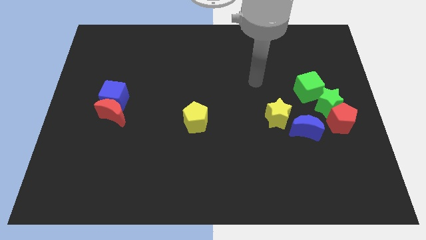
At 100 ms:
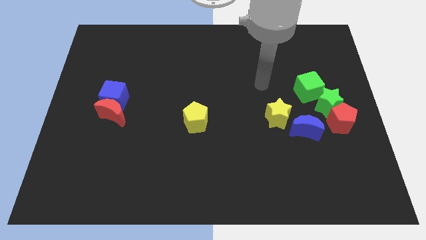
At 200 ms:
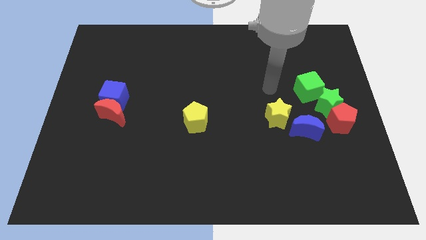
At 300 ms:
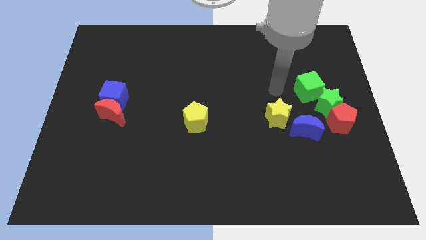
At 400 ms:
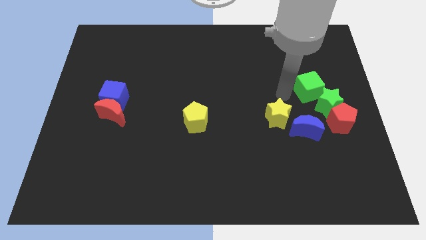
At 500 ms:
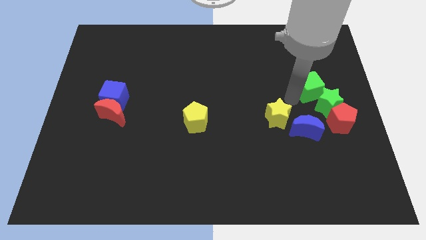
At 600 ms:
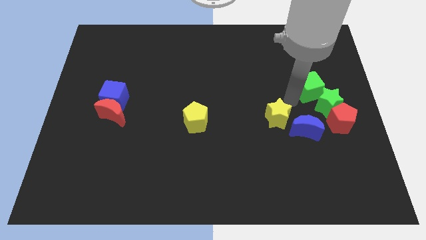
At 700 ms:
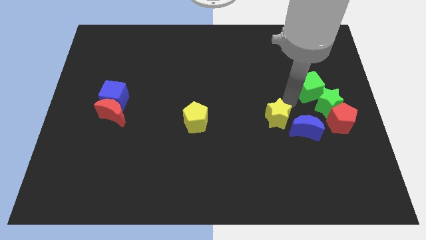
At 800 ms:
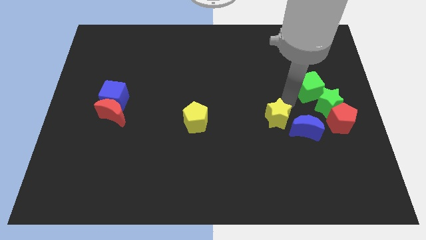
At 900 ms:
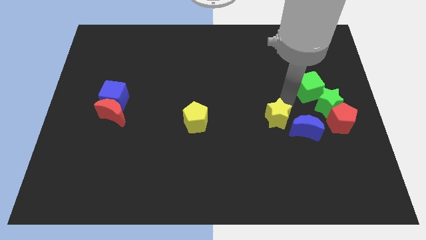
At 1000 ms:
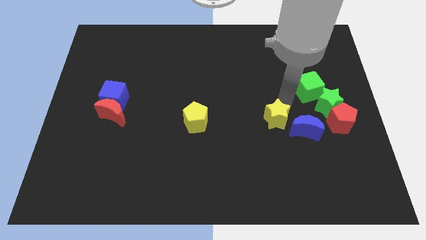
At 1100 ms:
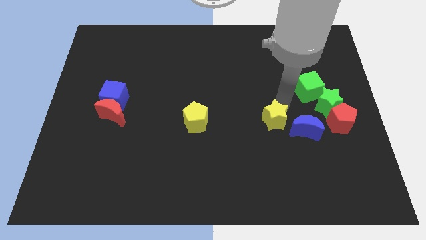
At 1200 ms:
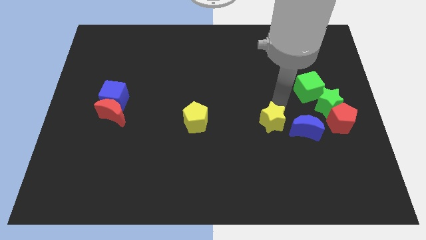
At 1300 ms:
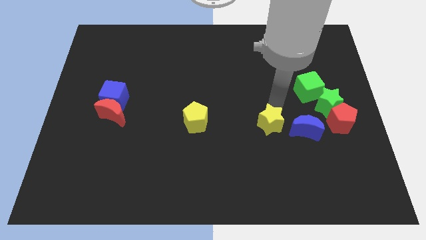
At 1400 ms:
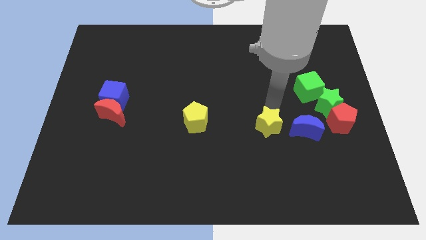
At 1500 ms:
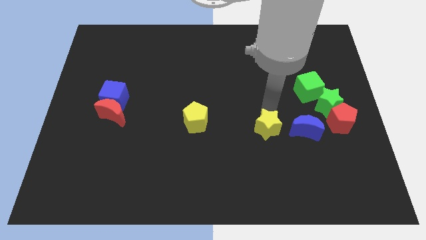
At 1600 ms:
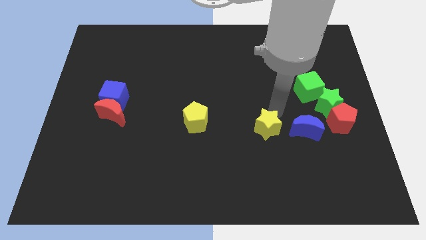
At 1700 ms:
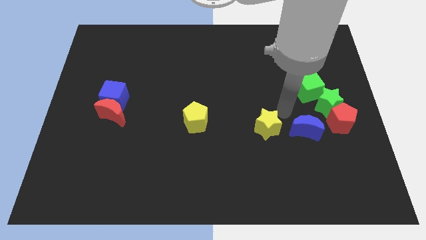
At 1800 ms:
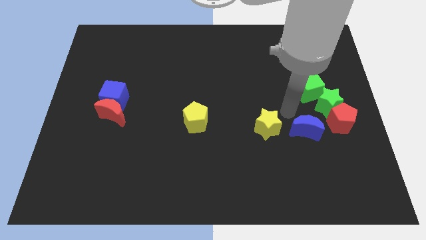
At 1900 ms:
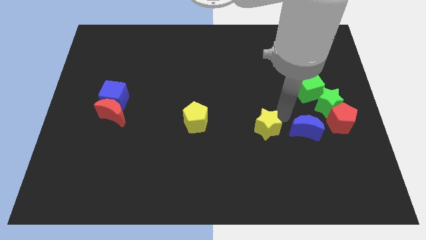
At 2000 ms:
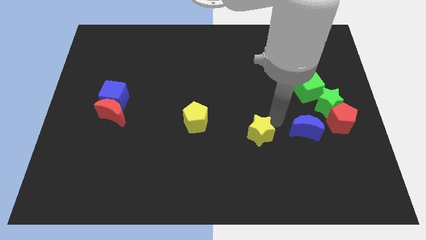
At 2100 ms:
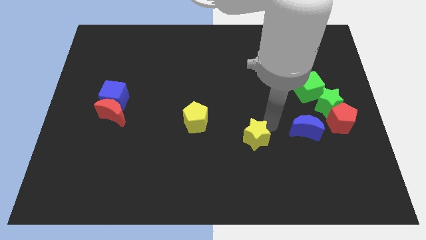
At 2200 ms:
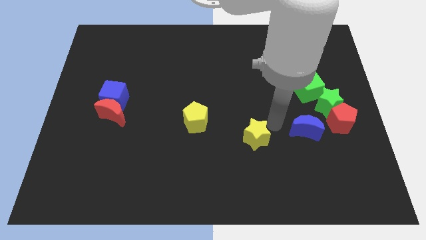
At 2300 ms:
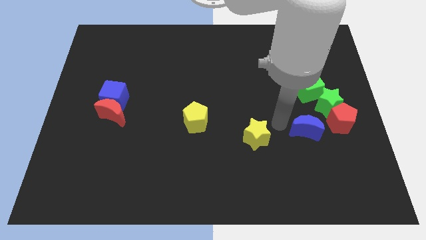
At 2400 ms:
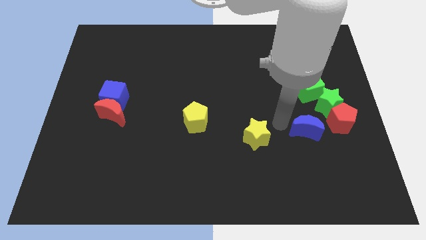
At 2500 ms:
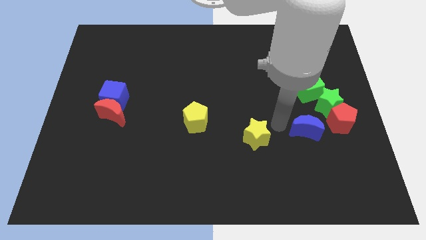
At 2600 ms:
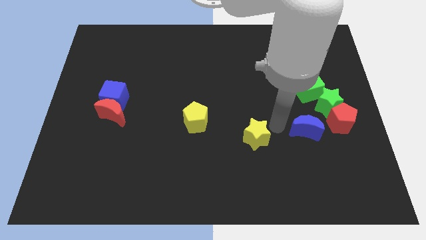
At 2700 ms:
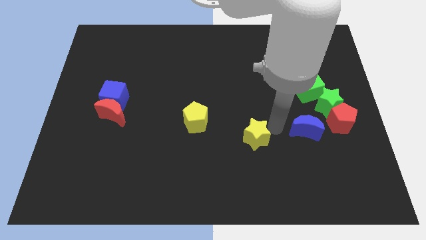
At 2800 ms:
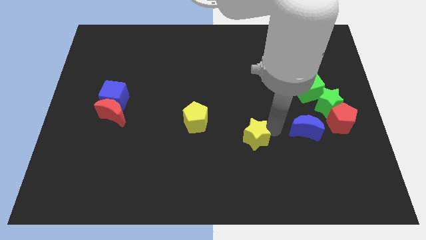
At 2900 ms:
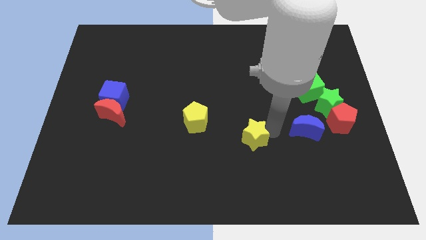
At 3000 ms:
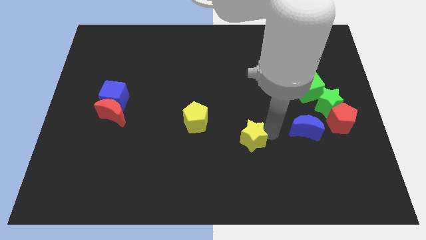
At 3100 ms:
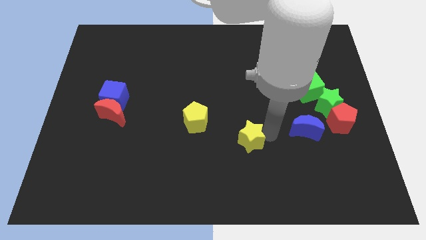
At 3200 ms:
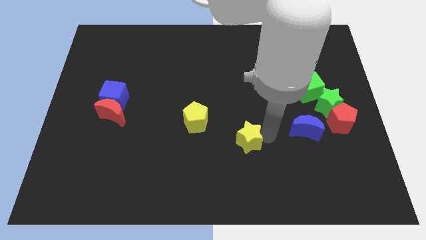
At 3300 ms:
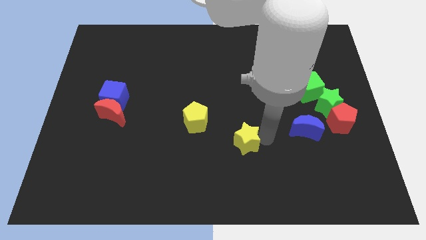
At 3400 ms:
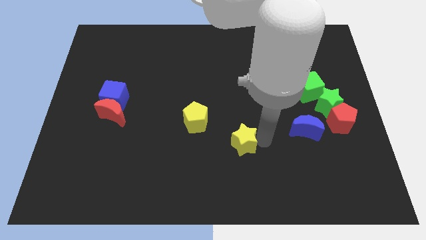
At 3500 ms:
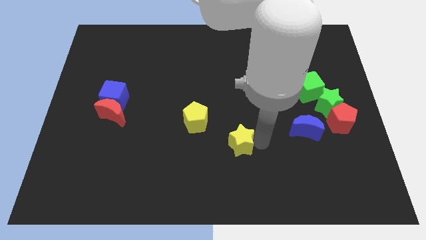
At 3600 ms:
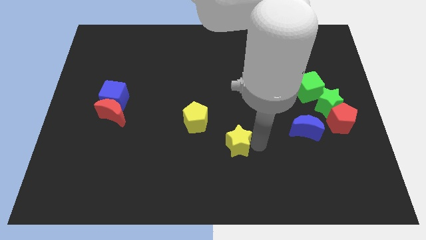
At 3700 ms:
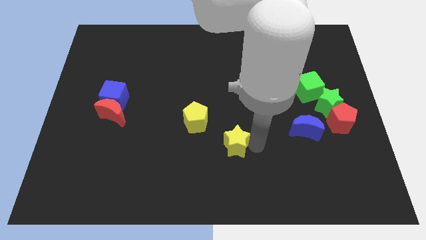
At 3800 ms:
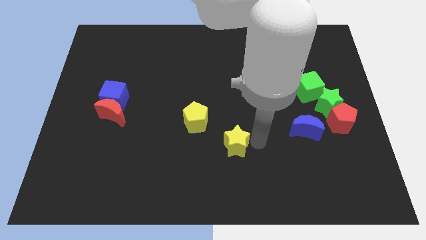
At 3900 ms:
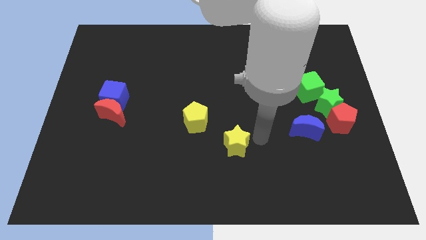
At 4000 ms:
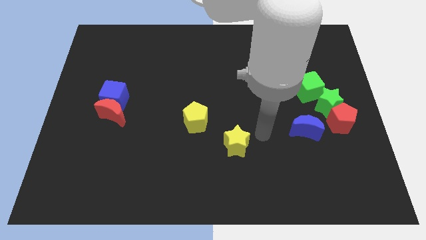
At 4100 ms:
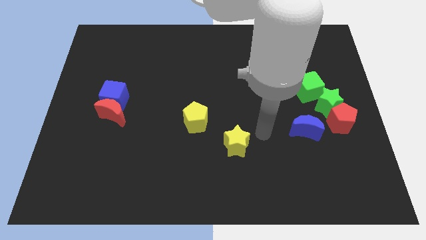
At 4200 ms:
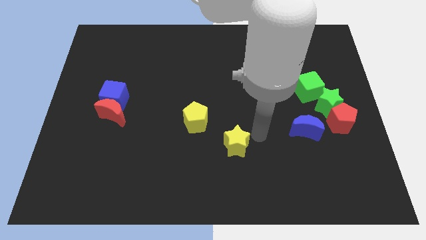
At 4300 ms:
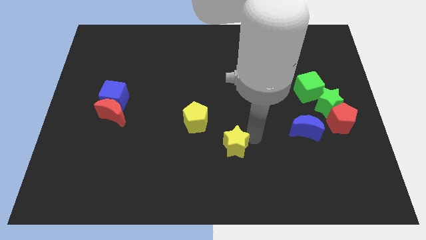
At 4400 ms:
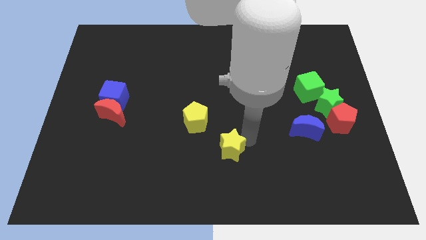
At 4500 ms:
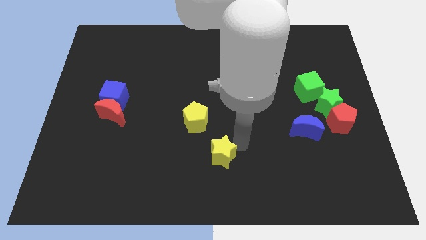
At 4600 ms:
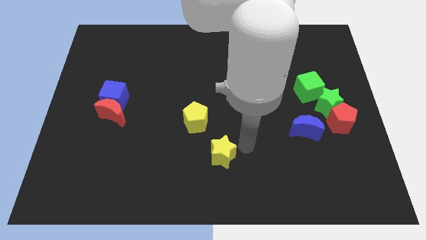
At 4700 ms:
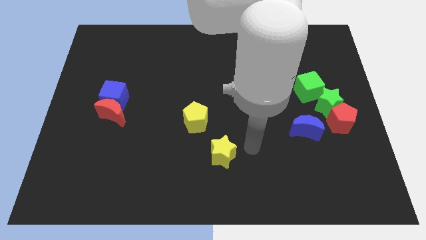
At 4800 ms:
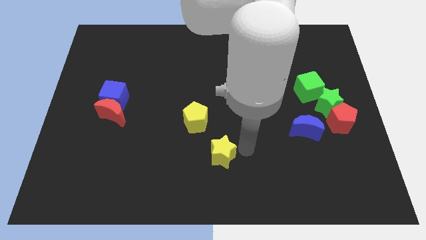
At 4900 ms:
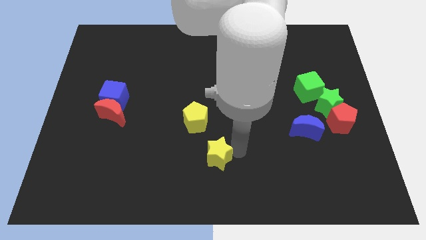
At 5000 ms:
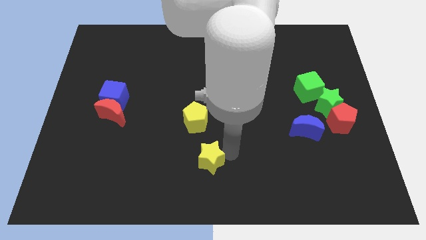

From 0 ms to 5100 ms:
put the yellow star to the bottom of the yellow pentagon

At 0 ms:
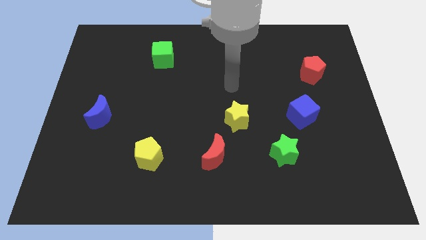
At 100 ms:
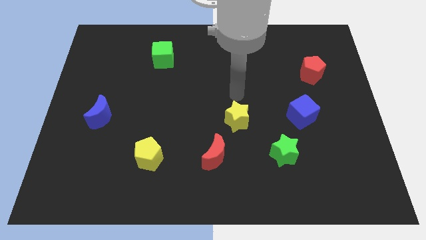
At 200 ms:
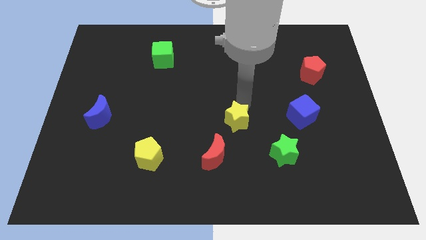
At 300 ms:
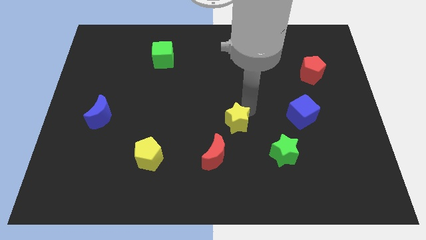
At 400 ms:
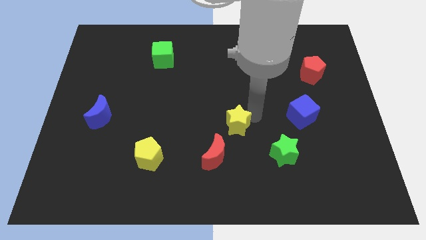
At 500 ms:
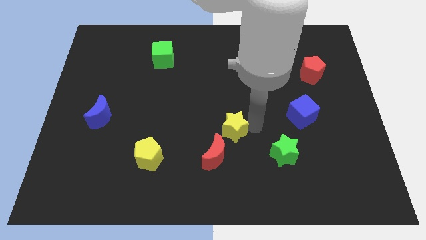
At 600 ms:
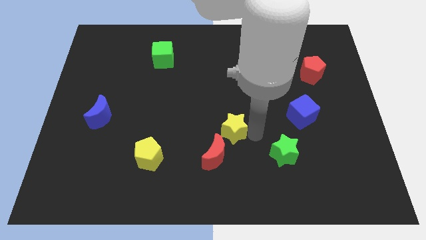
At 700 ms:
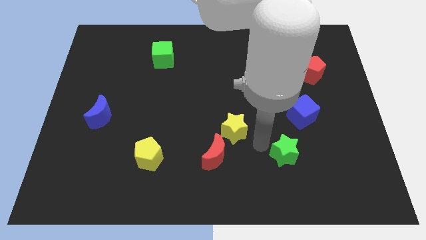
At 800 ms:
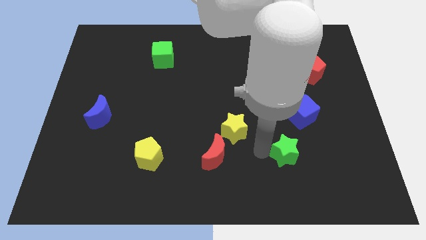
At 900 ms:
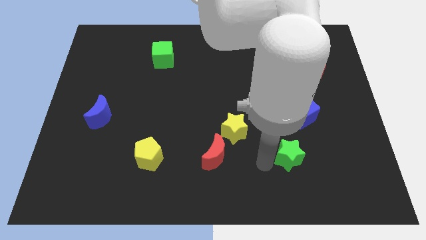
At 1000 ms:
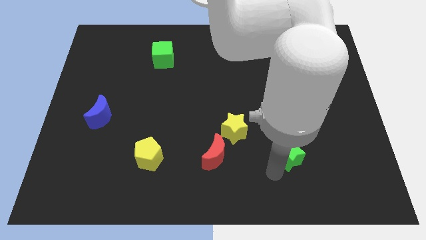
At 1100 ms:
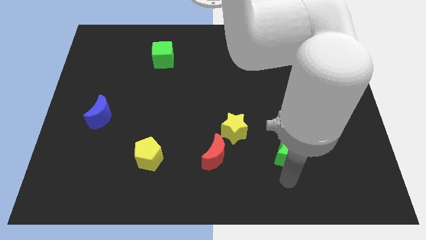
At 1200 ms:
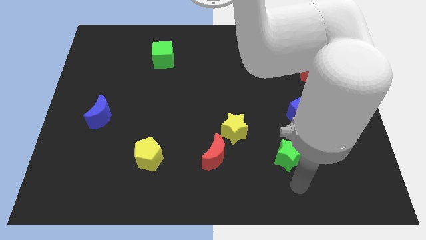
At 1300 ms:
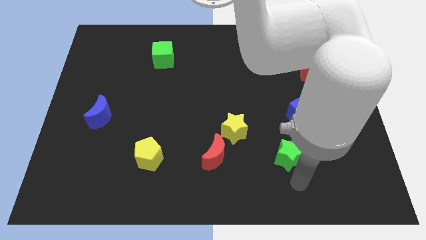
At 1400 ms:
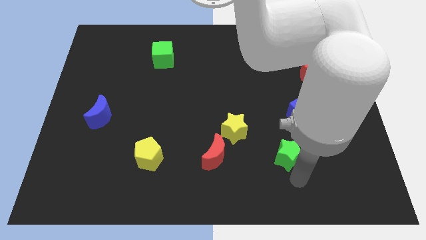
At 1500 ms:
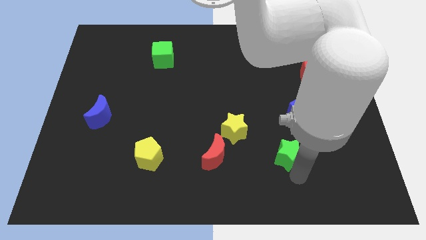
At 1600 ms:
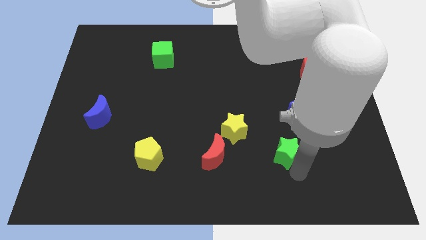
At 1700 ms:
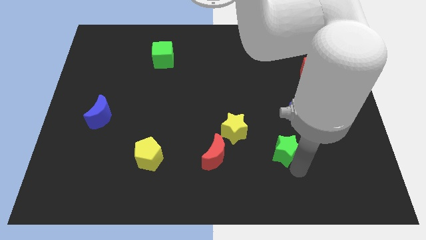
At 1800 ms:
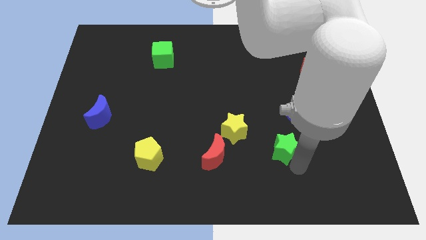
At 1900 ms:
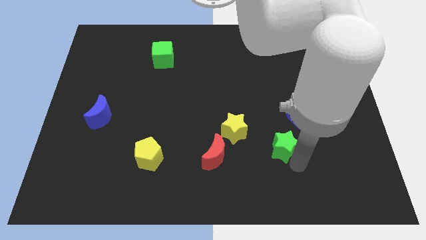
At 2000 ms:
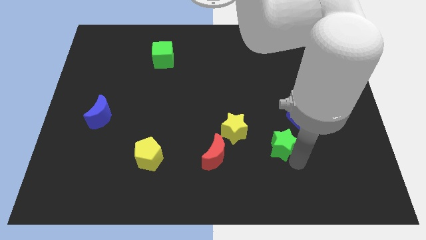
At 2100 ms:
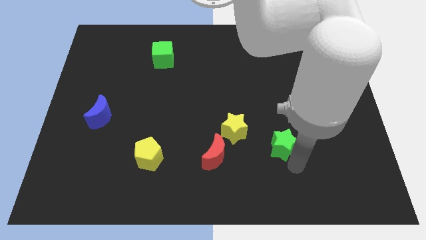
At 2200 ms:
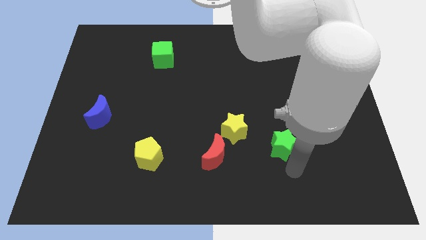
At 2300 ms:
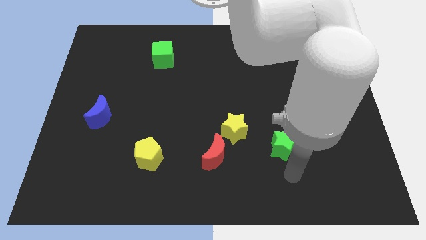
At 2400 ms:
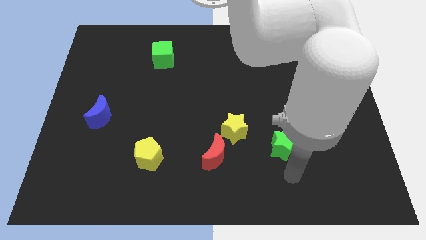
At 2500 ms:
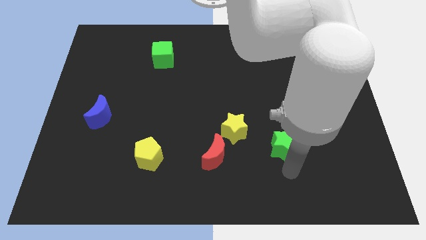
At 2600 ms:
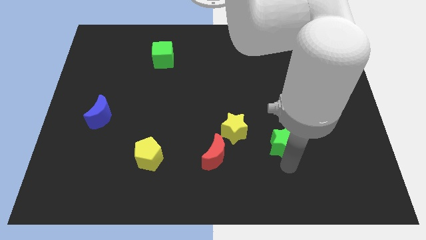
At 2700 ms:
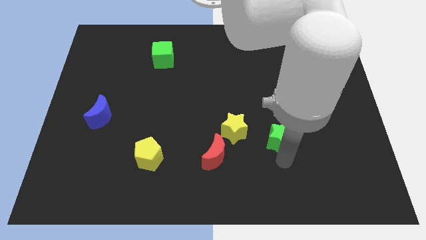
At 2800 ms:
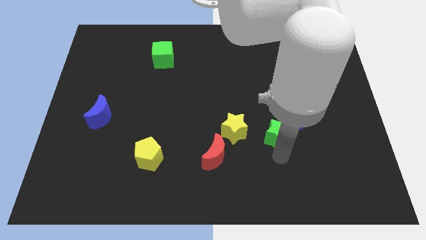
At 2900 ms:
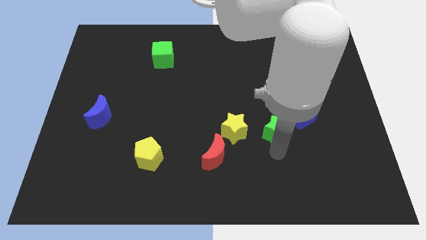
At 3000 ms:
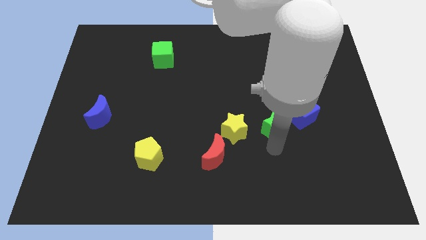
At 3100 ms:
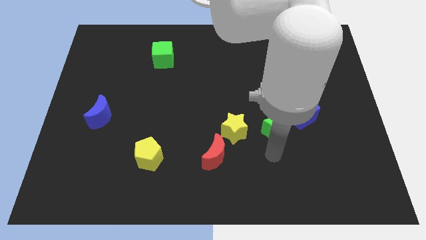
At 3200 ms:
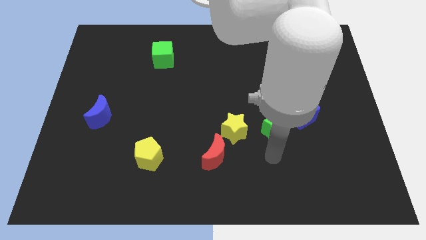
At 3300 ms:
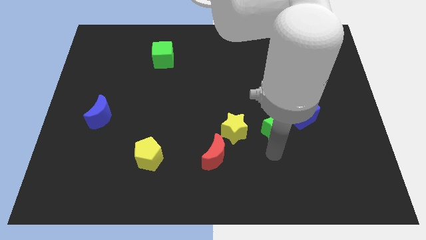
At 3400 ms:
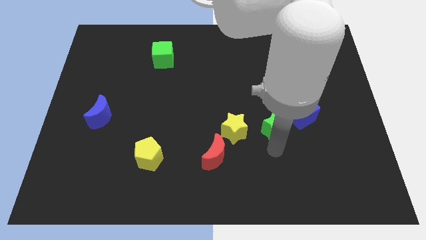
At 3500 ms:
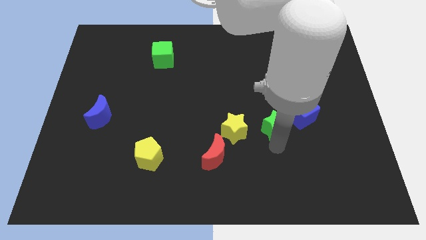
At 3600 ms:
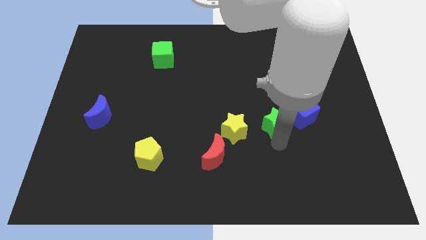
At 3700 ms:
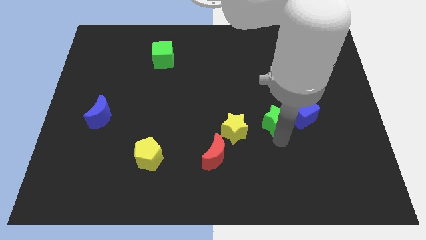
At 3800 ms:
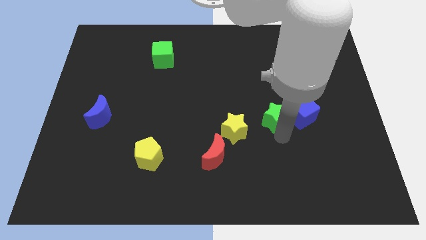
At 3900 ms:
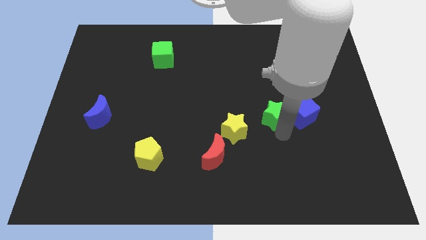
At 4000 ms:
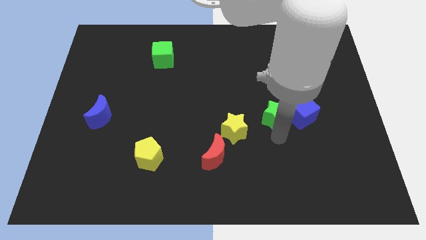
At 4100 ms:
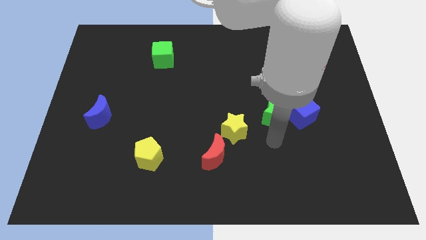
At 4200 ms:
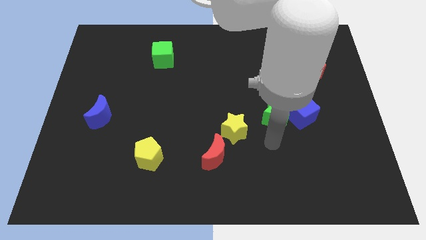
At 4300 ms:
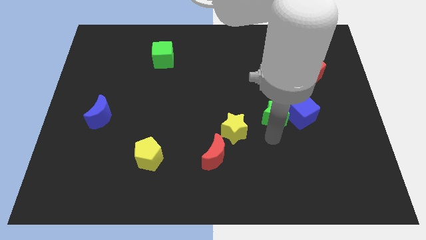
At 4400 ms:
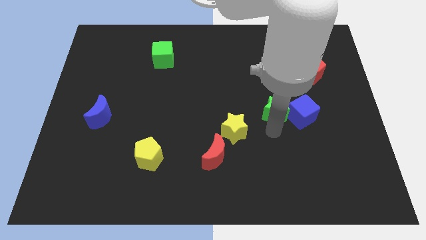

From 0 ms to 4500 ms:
push the green star diagonally up and to the left of the blue cube
